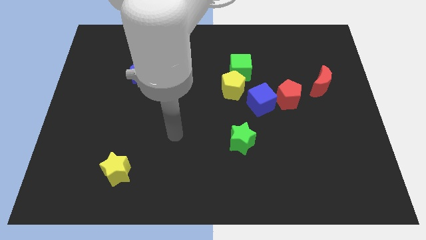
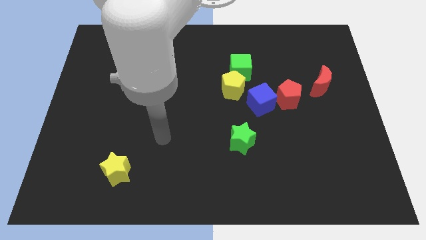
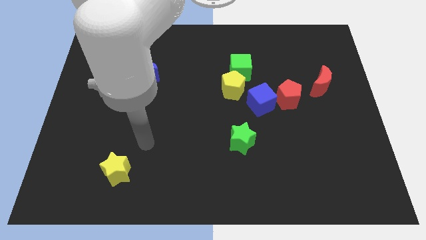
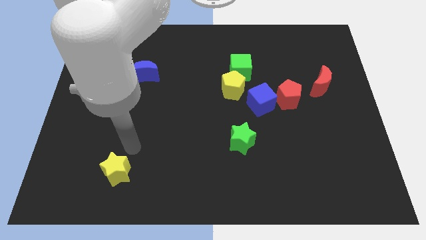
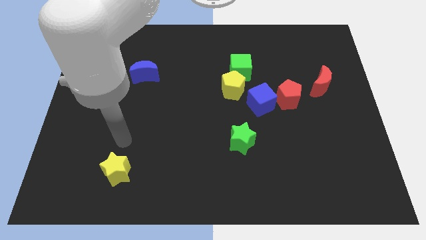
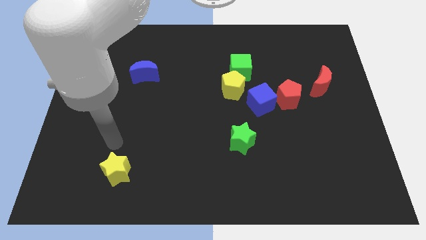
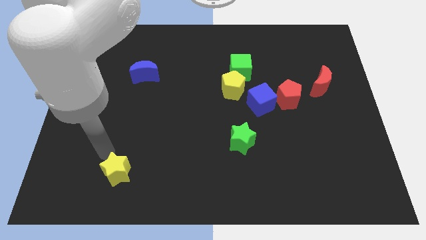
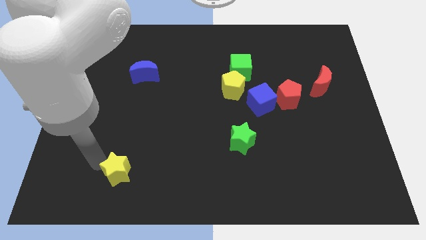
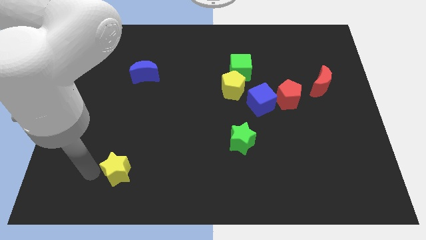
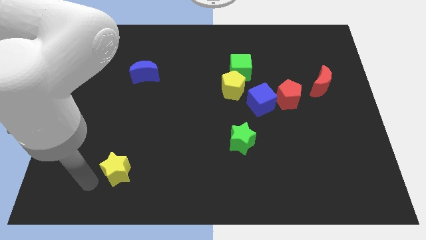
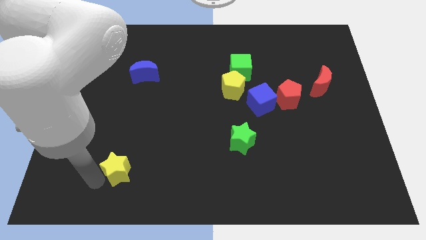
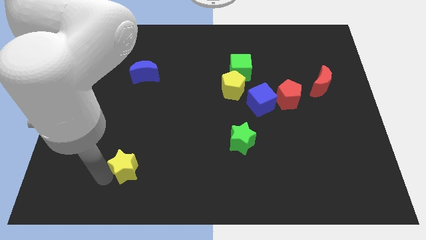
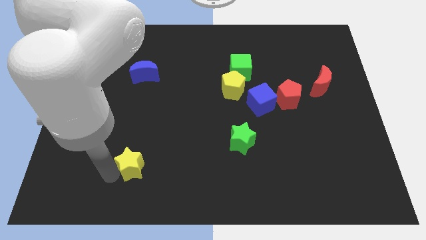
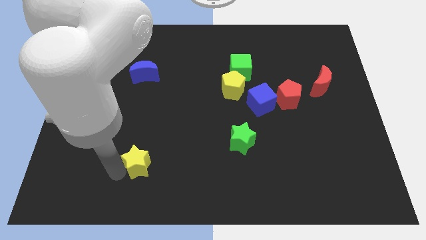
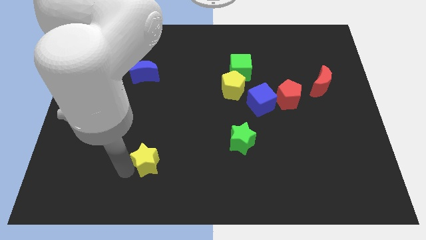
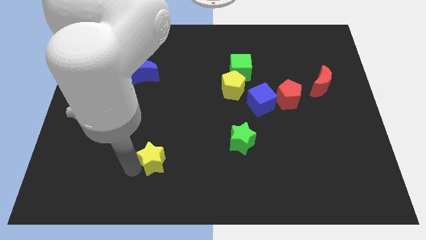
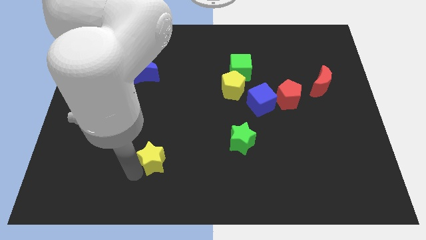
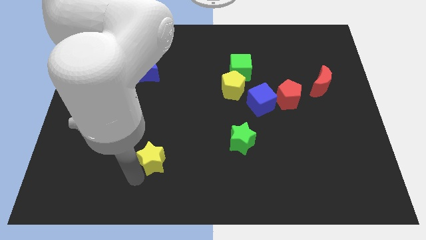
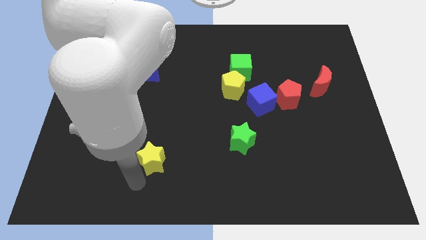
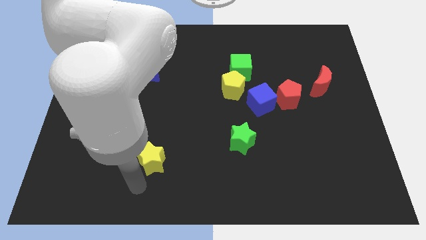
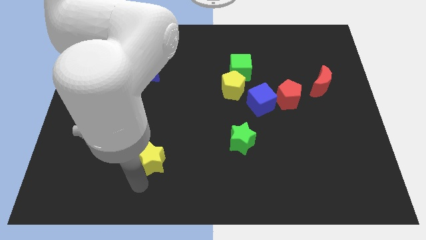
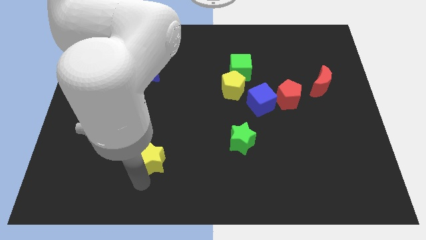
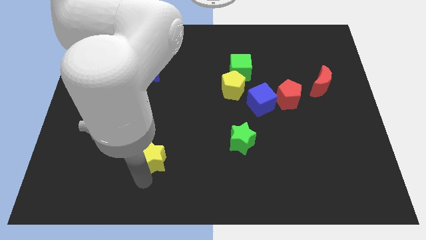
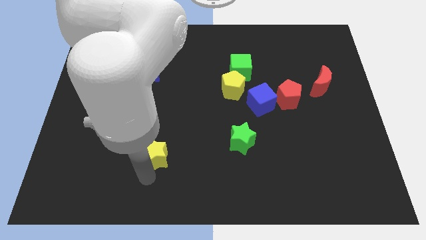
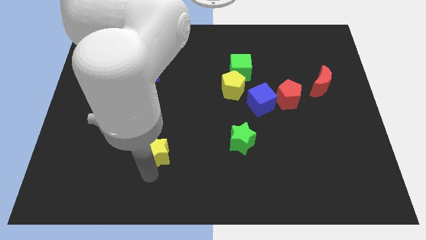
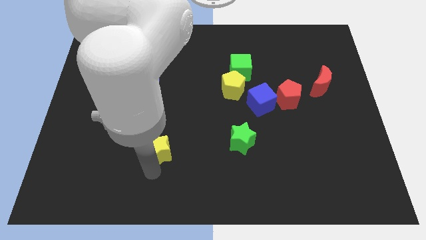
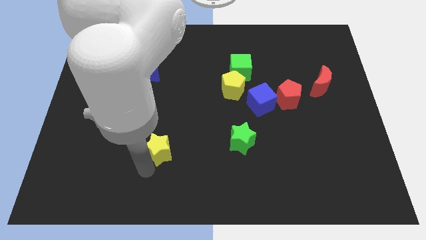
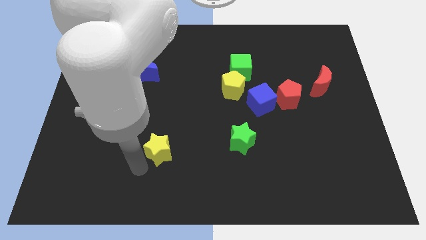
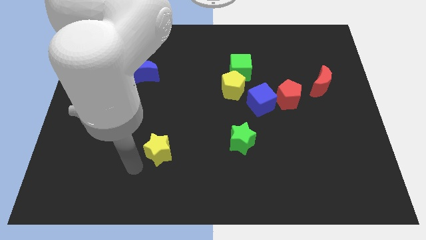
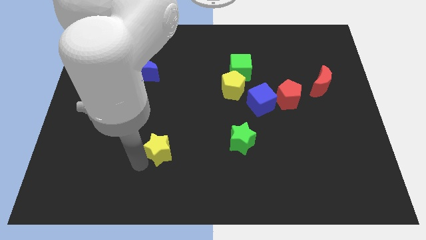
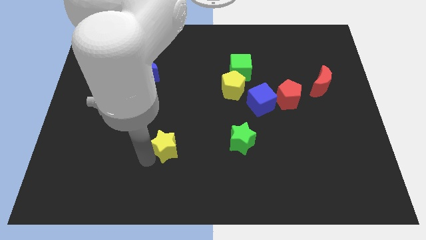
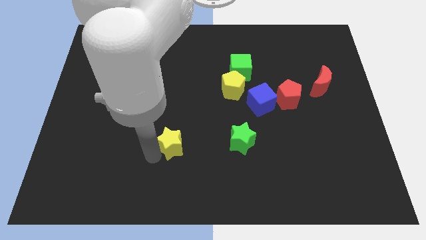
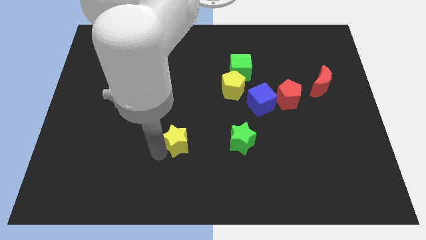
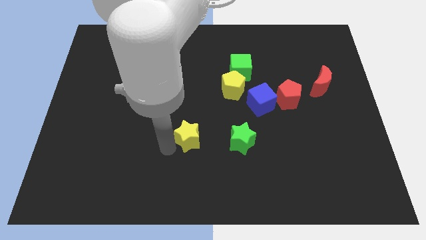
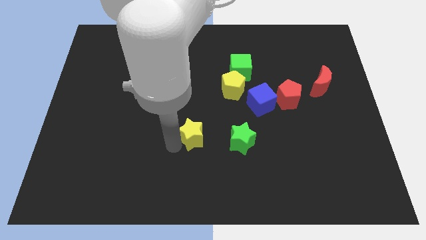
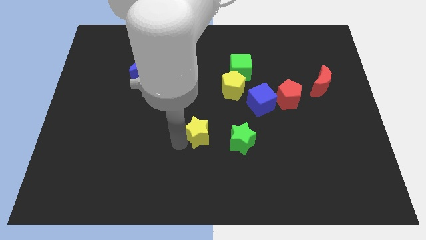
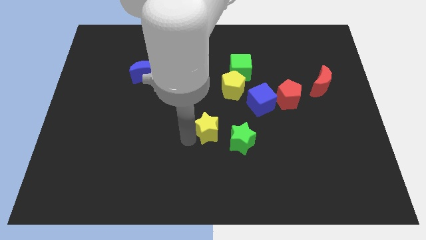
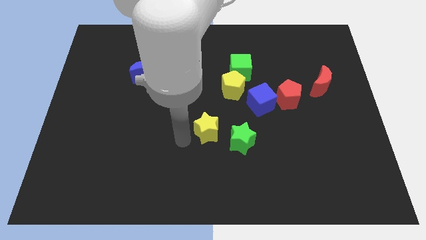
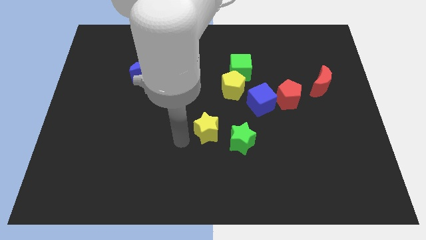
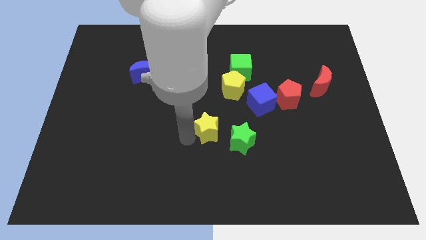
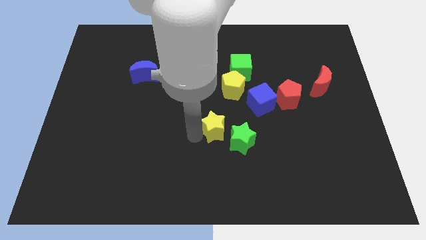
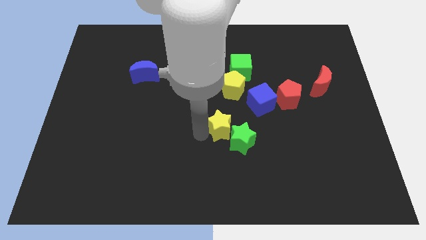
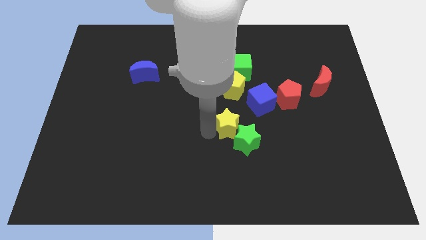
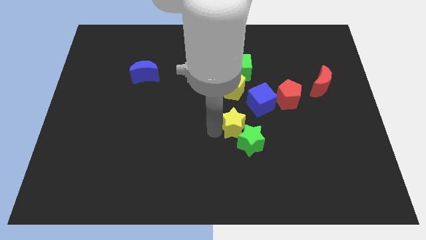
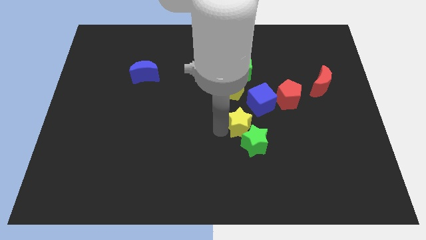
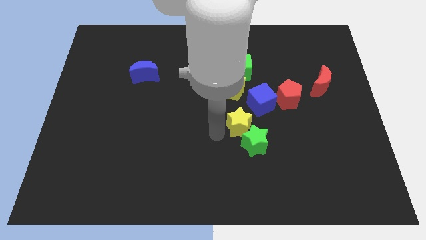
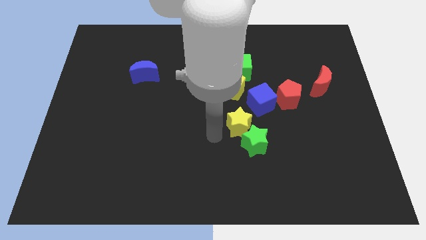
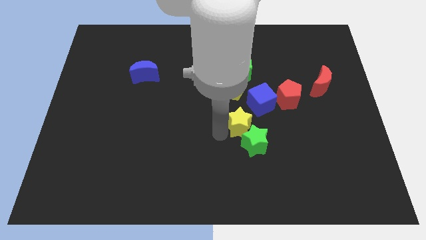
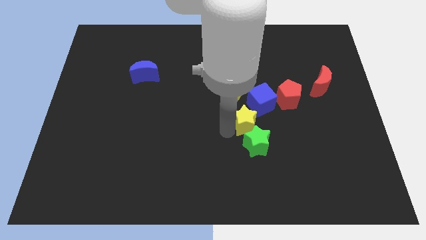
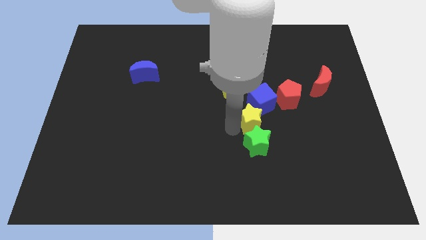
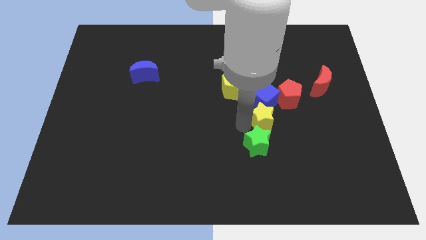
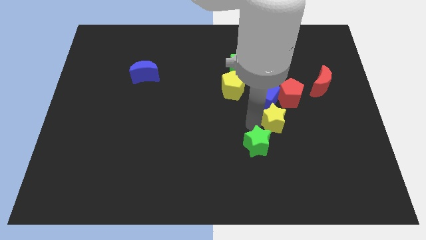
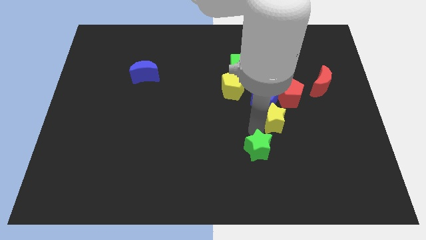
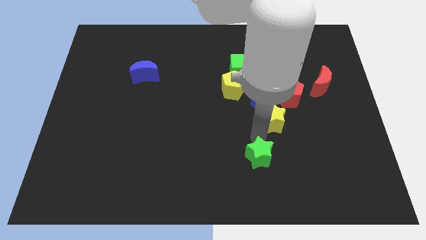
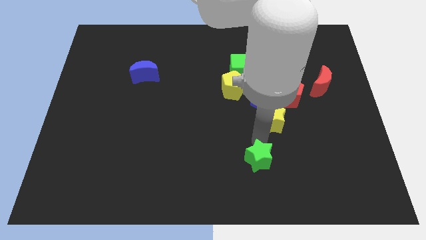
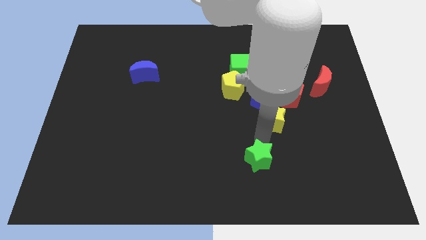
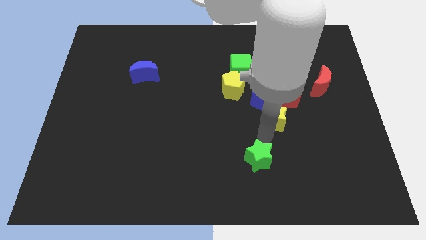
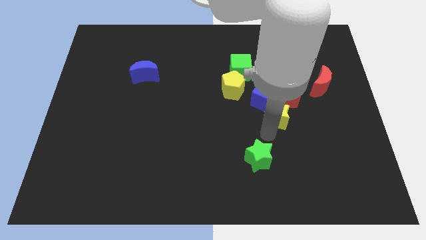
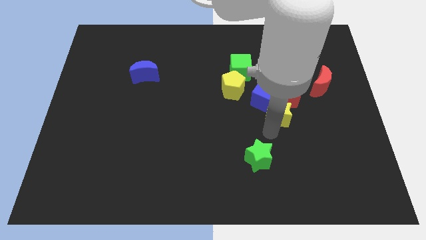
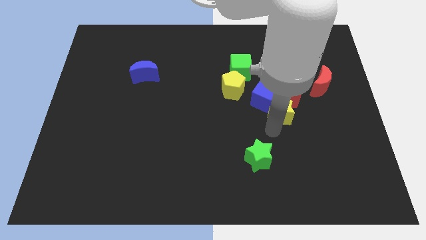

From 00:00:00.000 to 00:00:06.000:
slide the yellow star to the red pentagon

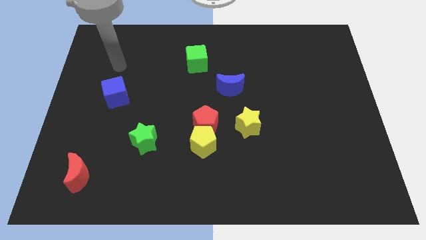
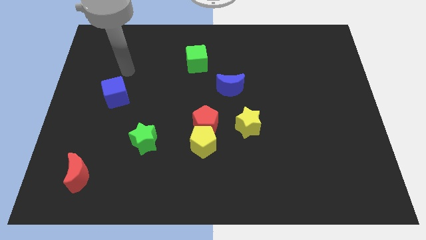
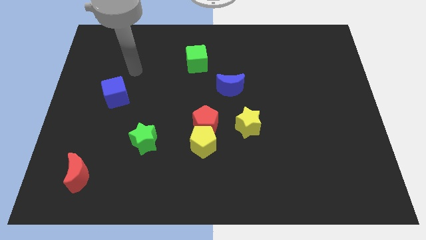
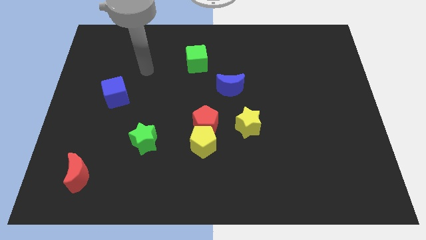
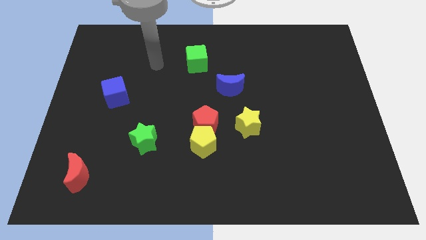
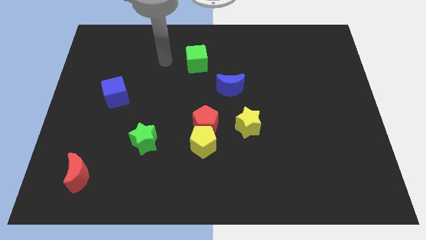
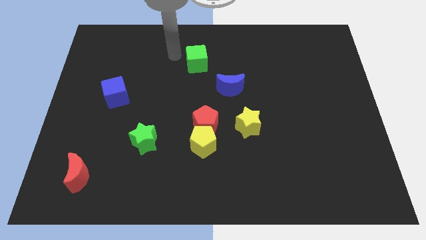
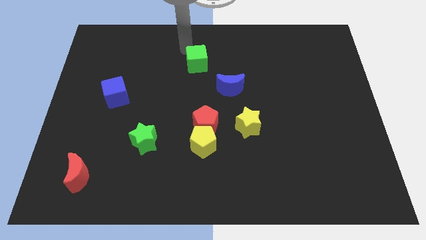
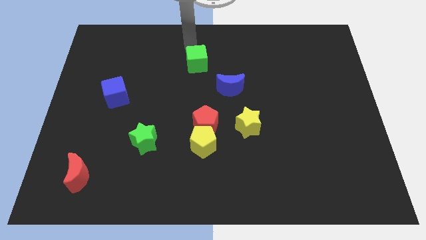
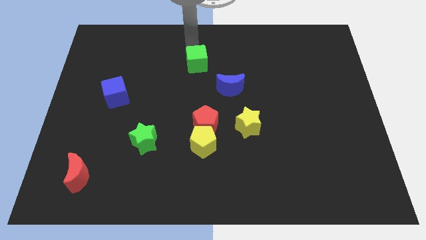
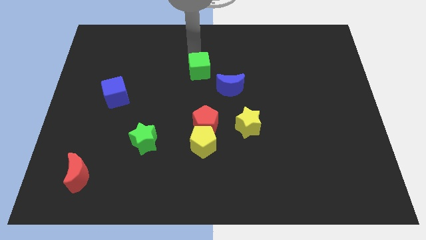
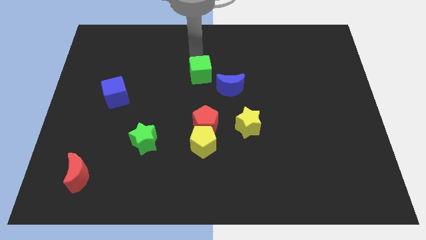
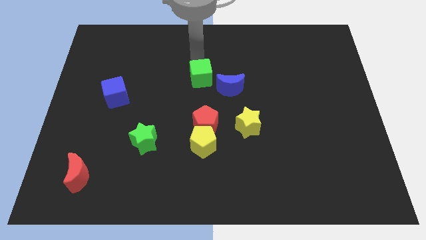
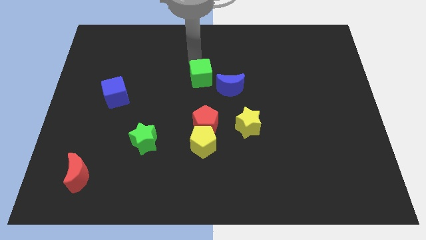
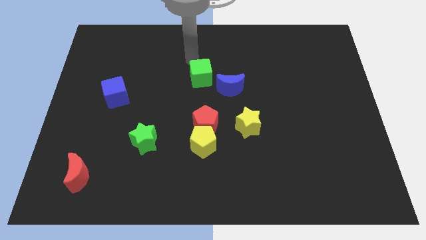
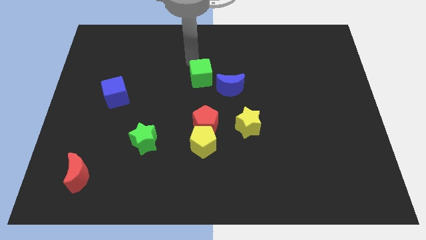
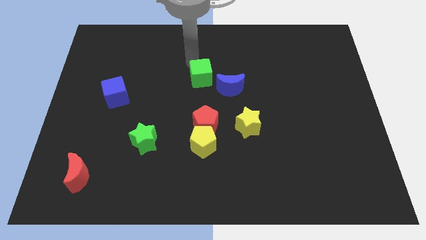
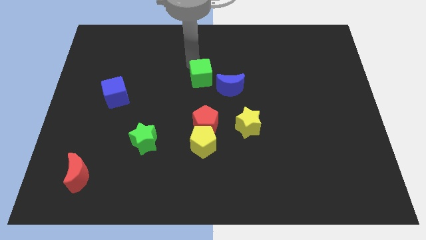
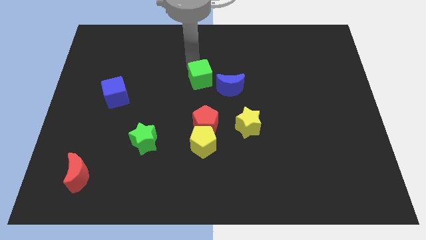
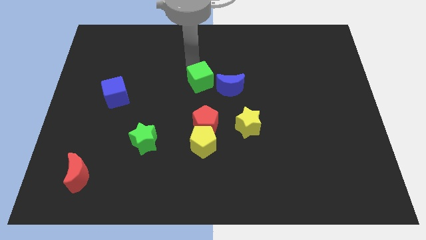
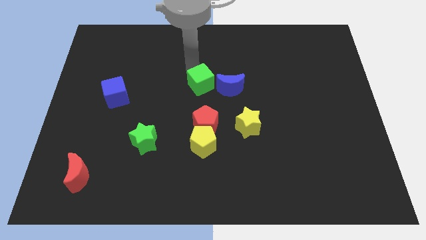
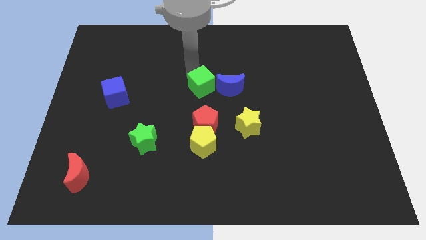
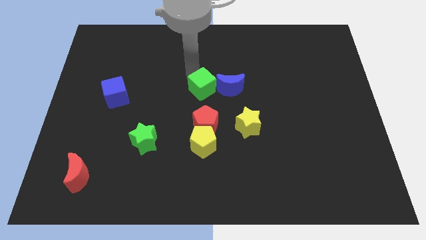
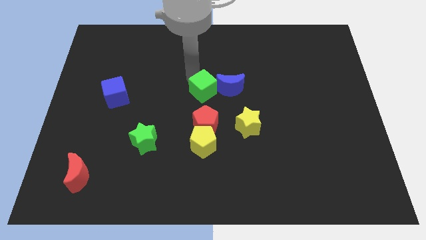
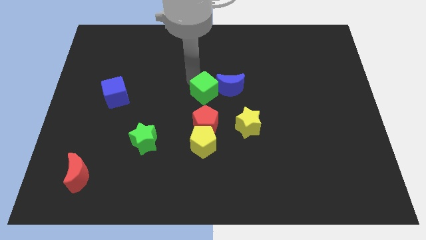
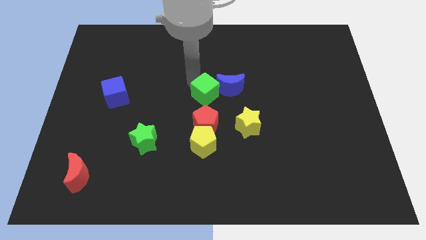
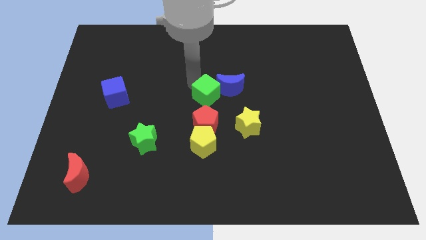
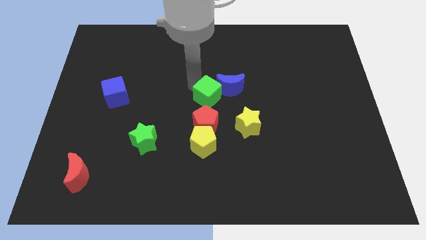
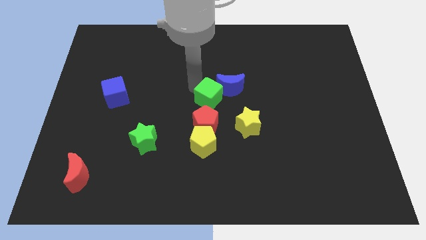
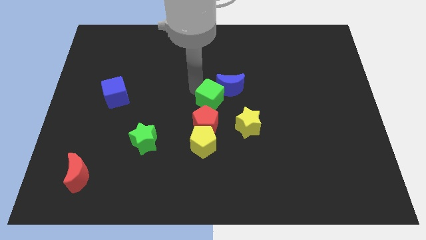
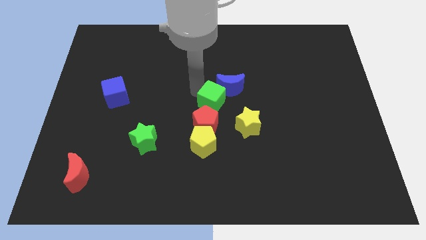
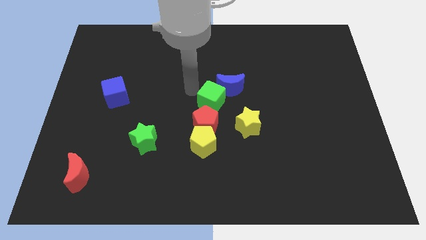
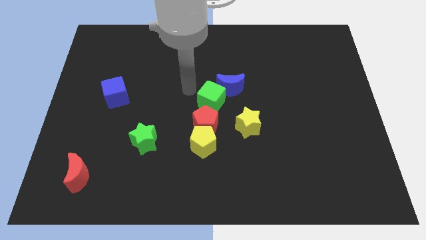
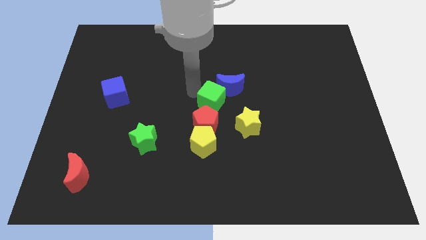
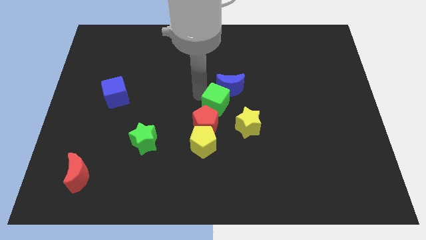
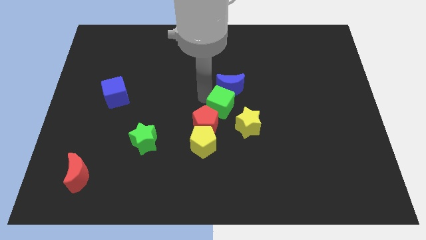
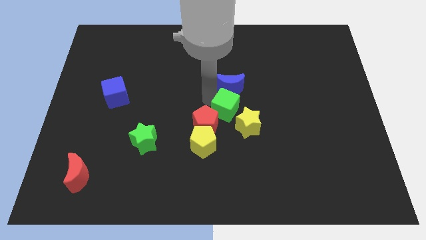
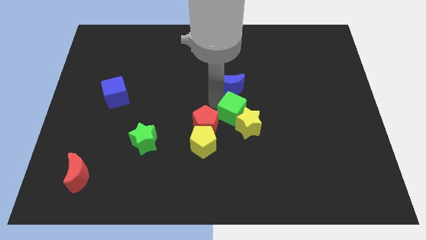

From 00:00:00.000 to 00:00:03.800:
move the green cube close to the yellow star
